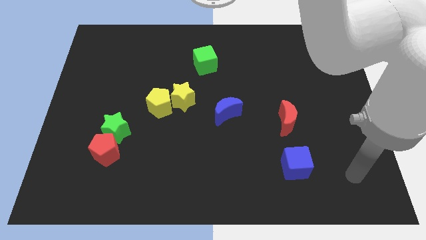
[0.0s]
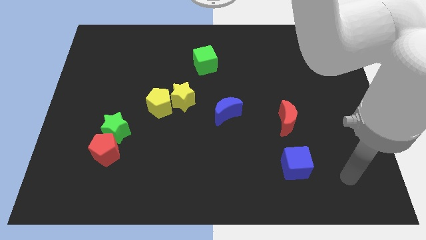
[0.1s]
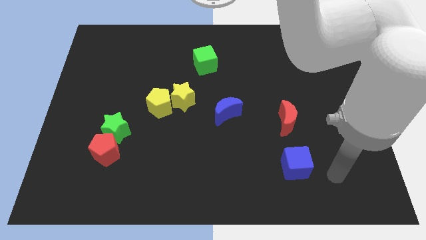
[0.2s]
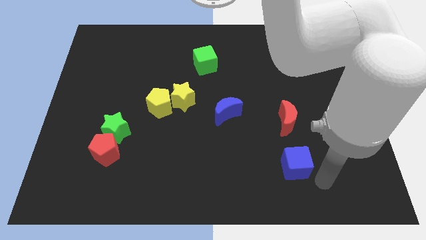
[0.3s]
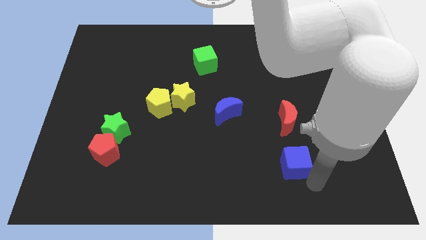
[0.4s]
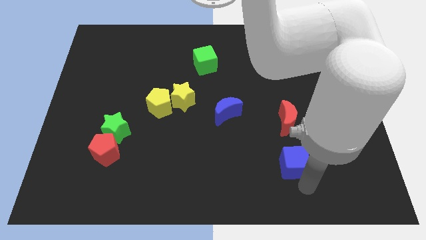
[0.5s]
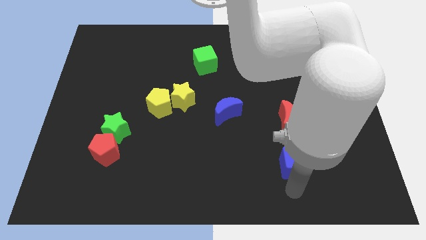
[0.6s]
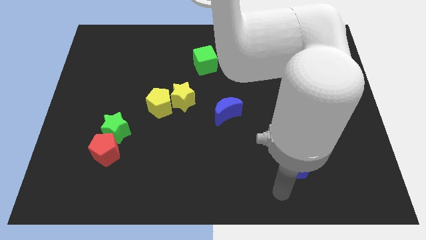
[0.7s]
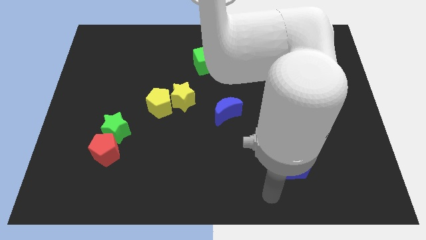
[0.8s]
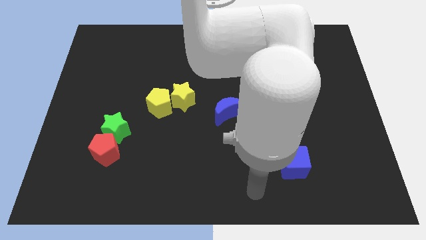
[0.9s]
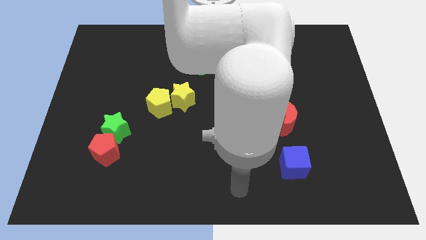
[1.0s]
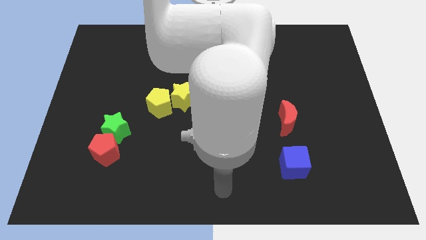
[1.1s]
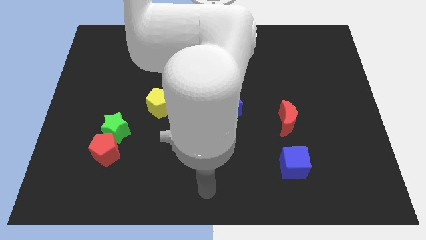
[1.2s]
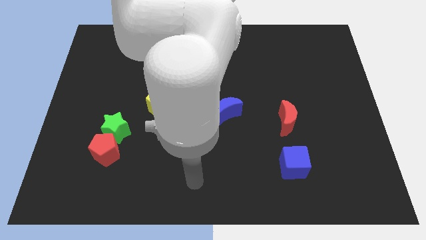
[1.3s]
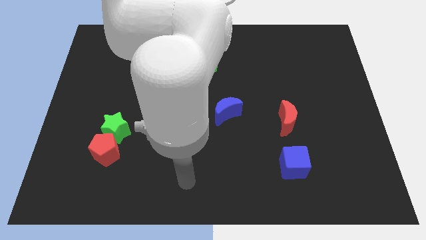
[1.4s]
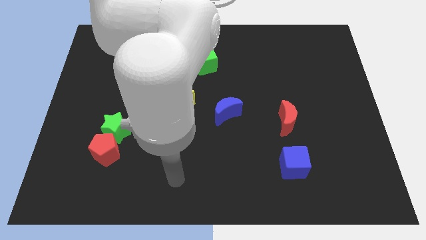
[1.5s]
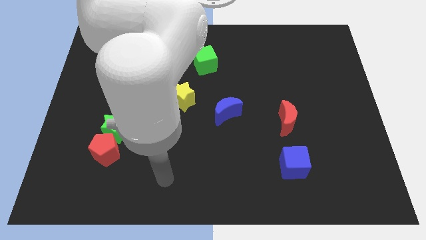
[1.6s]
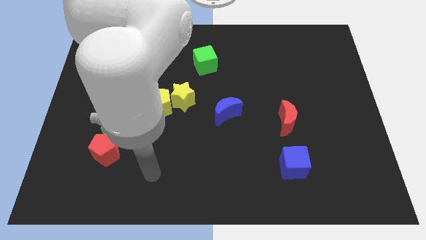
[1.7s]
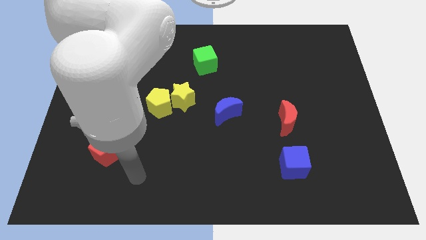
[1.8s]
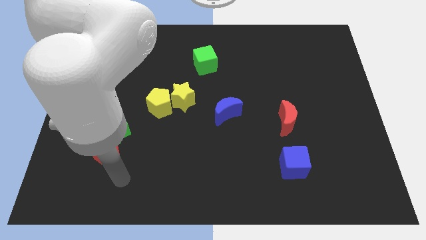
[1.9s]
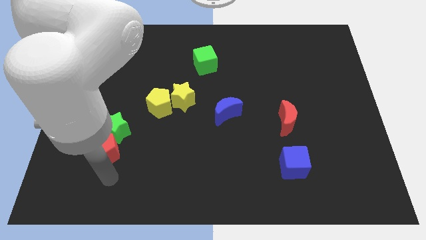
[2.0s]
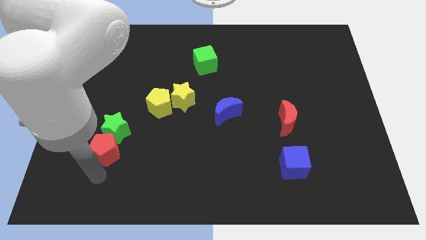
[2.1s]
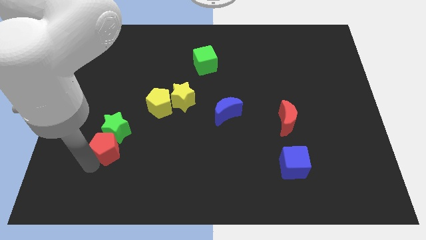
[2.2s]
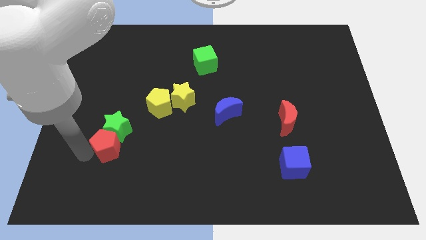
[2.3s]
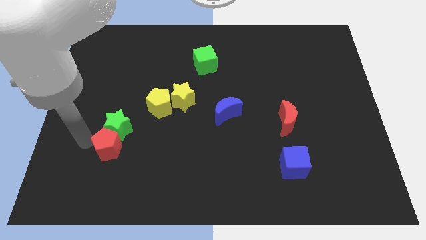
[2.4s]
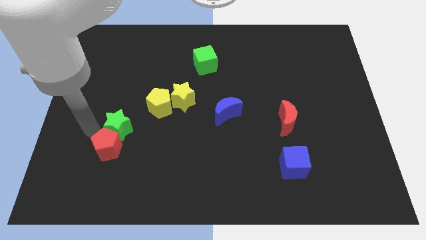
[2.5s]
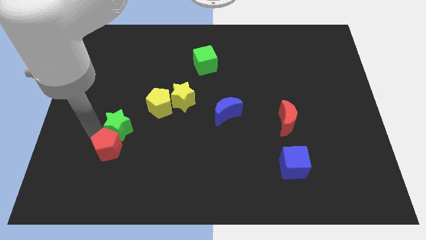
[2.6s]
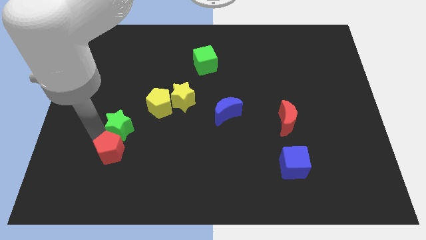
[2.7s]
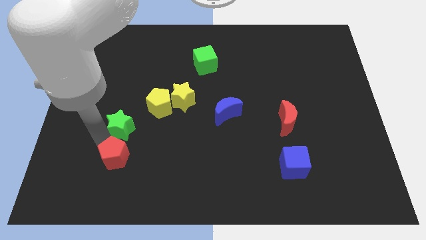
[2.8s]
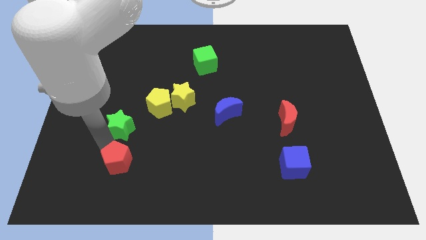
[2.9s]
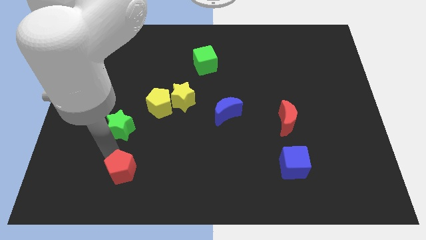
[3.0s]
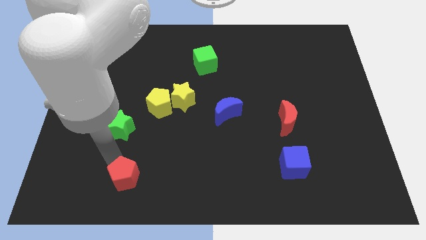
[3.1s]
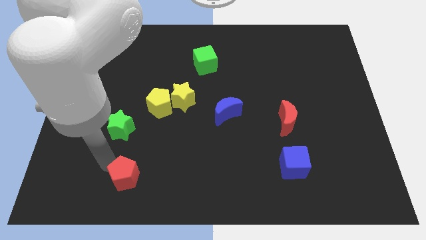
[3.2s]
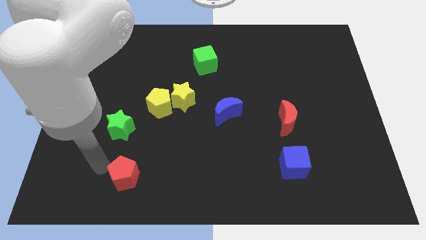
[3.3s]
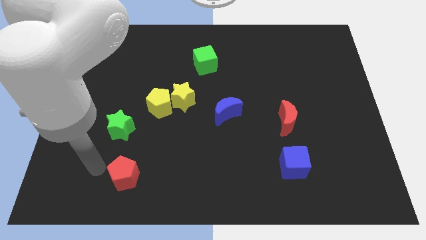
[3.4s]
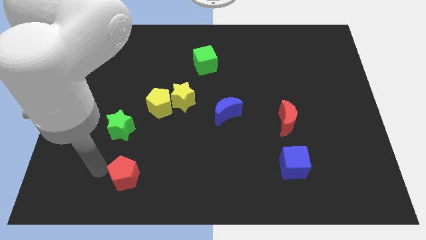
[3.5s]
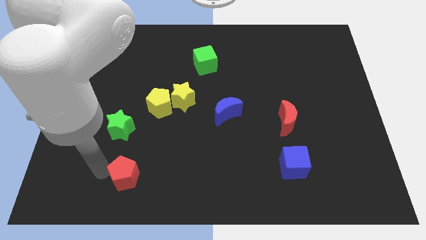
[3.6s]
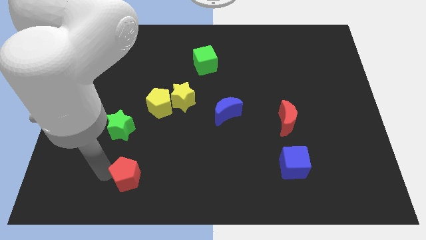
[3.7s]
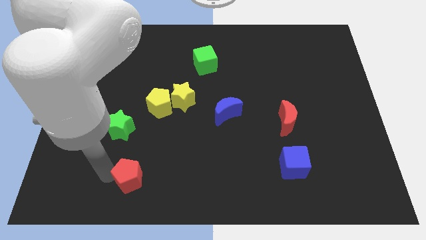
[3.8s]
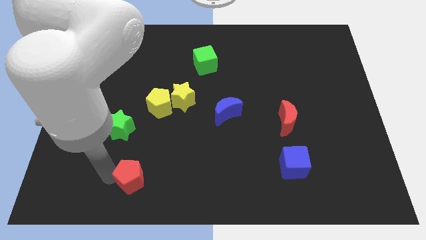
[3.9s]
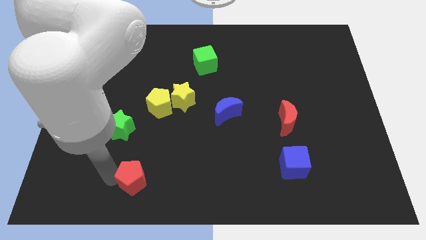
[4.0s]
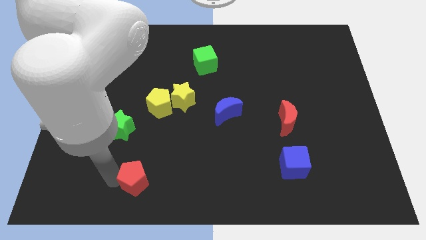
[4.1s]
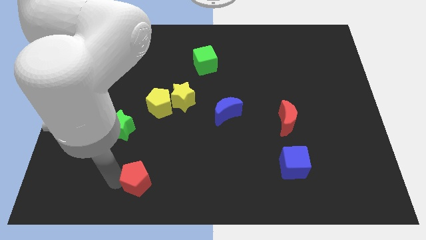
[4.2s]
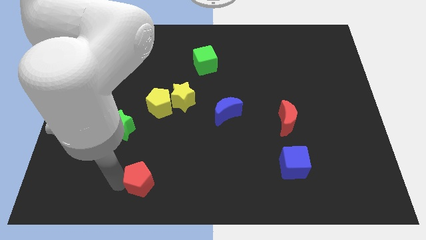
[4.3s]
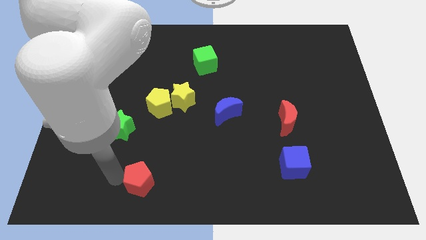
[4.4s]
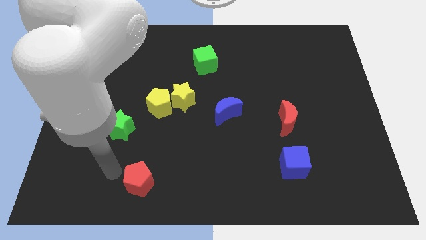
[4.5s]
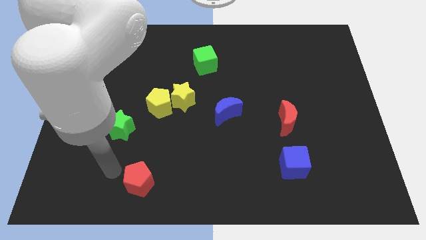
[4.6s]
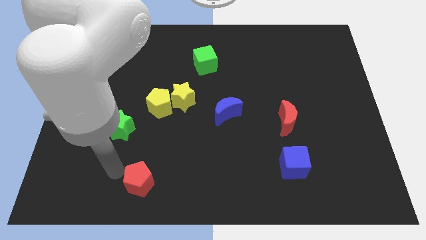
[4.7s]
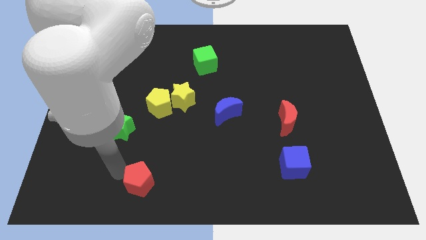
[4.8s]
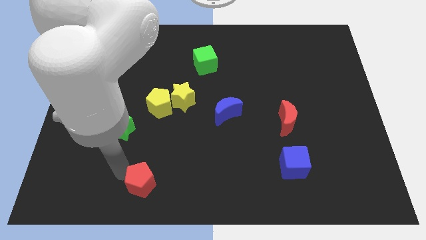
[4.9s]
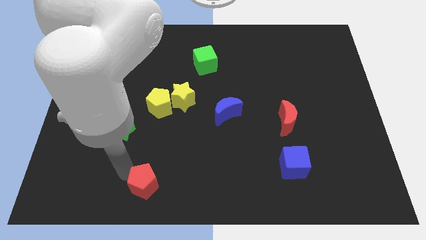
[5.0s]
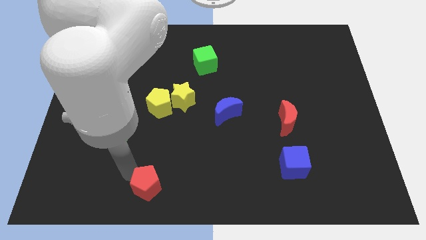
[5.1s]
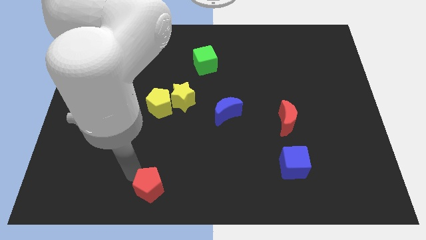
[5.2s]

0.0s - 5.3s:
slide the red pentagon to the bottom

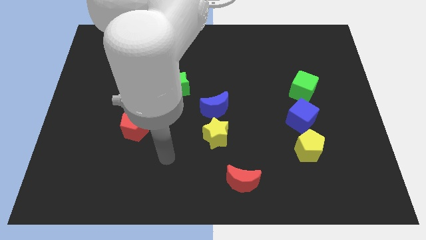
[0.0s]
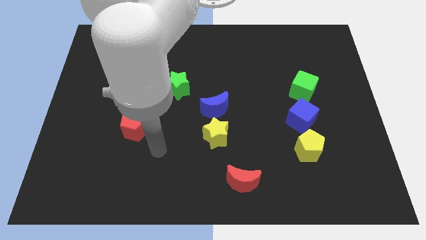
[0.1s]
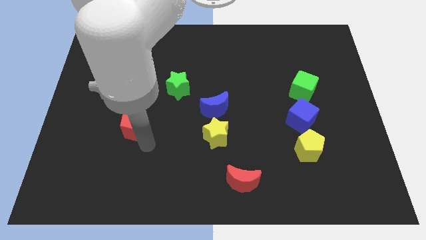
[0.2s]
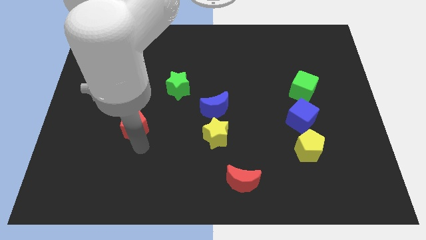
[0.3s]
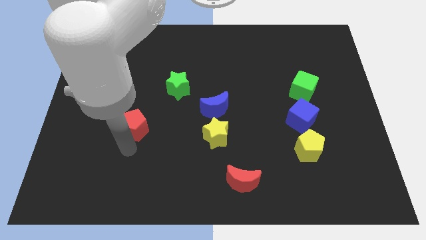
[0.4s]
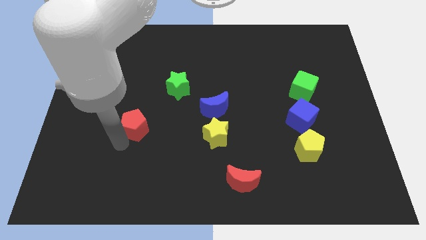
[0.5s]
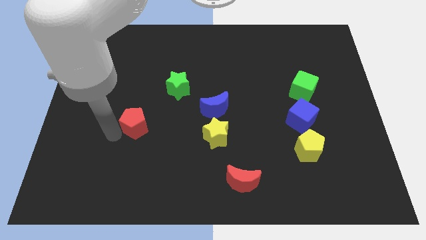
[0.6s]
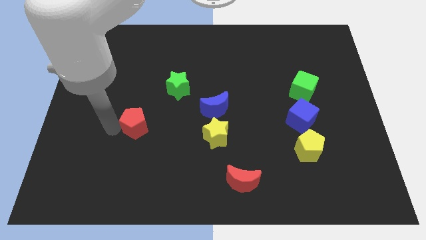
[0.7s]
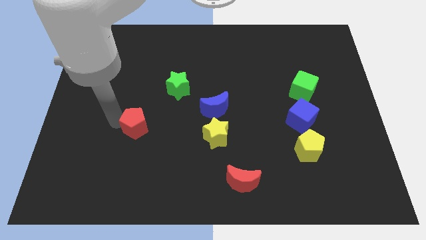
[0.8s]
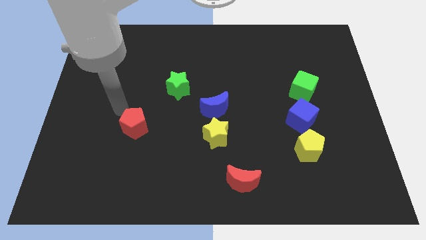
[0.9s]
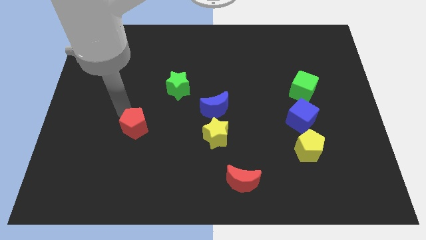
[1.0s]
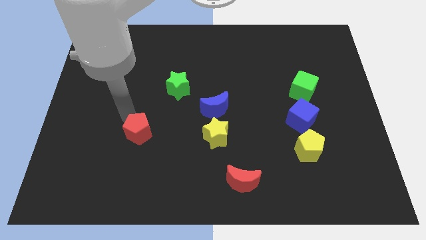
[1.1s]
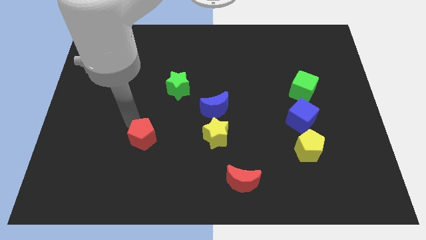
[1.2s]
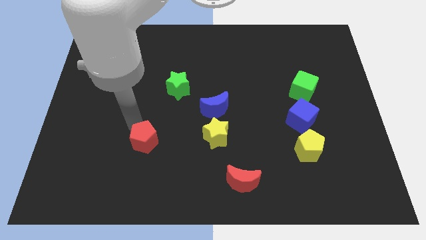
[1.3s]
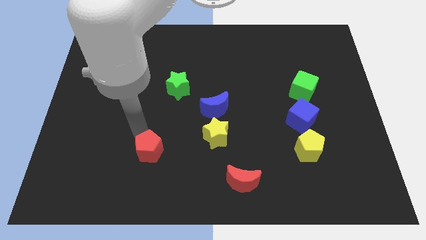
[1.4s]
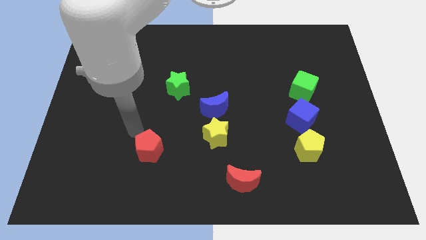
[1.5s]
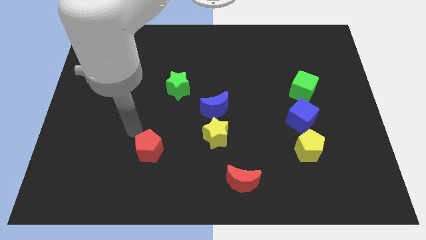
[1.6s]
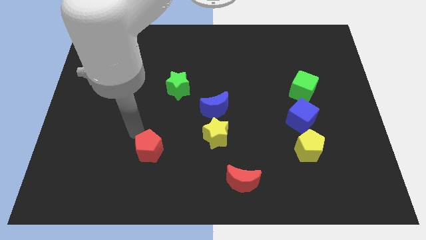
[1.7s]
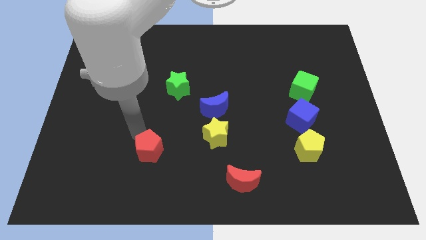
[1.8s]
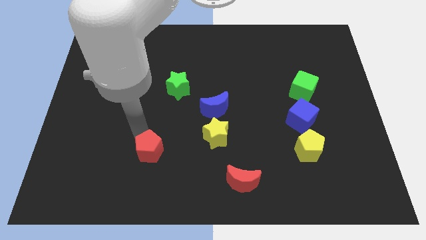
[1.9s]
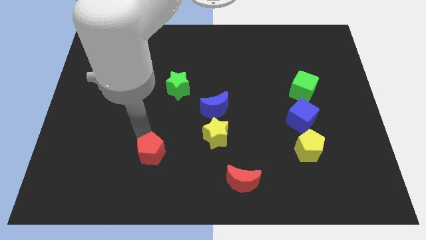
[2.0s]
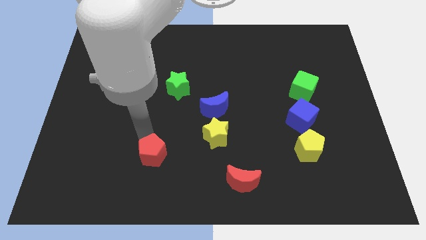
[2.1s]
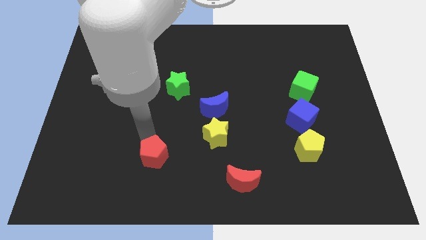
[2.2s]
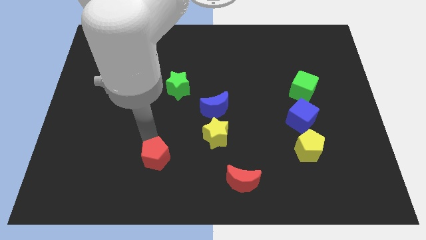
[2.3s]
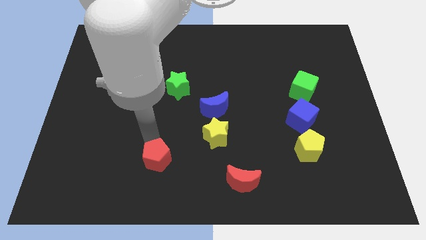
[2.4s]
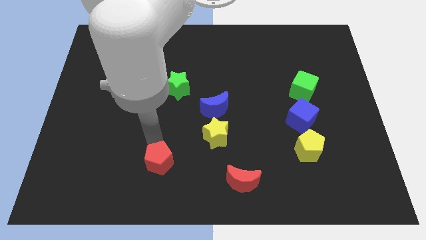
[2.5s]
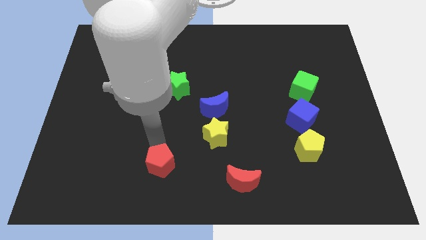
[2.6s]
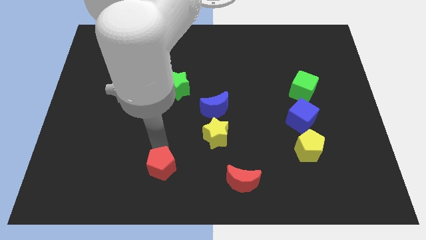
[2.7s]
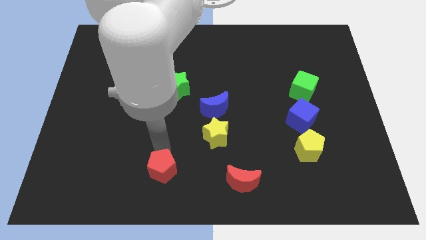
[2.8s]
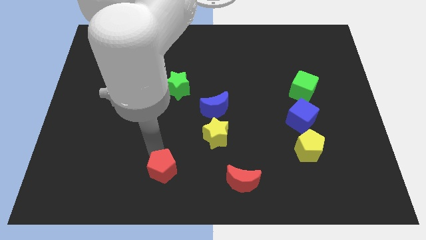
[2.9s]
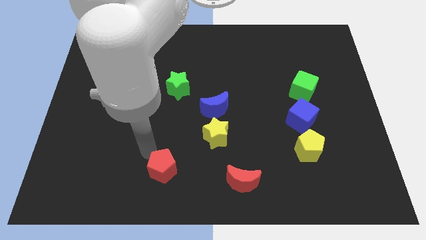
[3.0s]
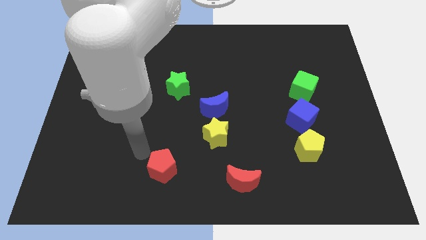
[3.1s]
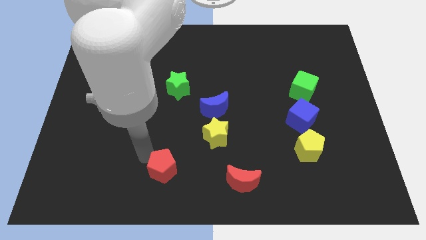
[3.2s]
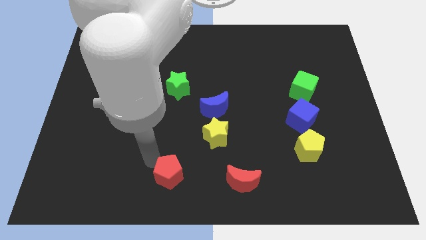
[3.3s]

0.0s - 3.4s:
put the red pentagon to the bottom side
